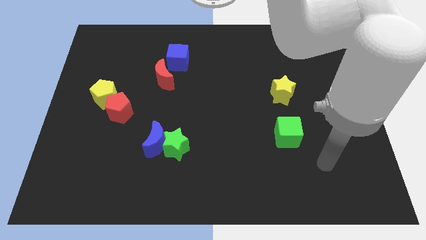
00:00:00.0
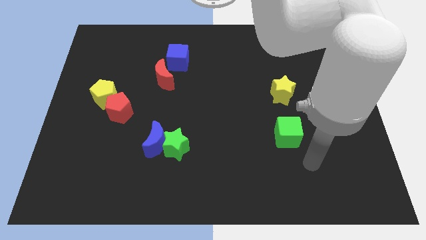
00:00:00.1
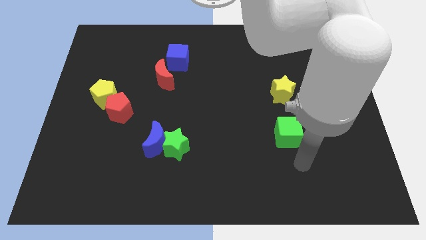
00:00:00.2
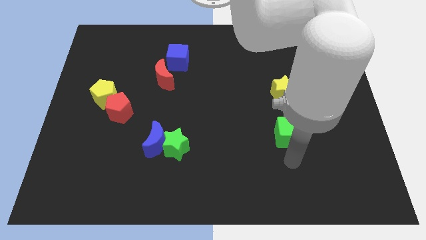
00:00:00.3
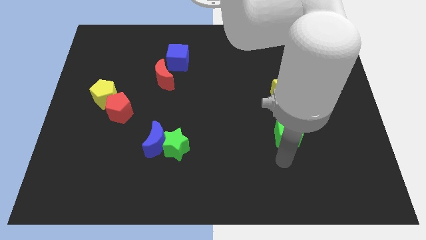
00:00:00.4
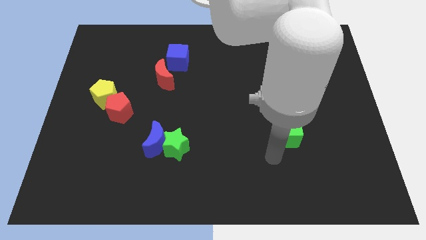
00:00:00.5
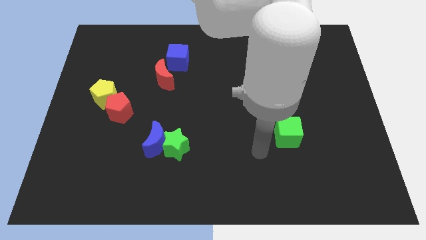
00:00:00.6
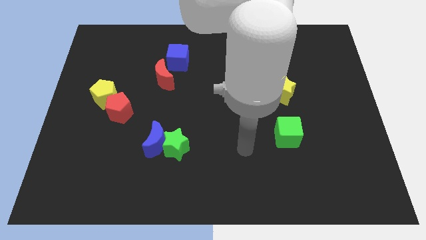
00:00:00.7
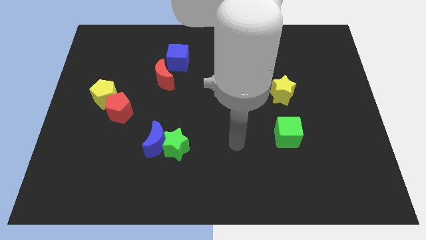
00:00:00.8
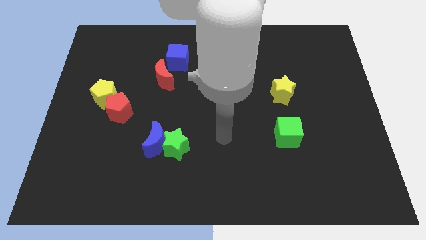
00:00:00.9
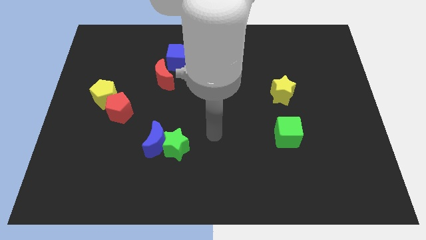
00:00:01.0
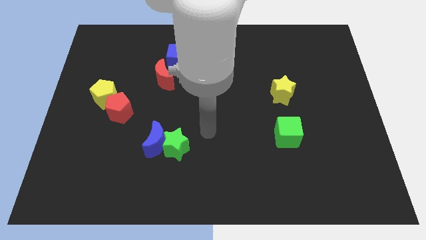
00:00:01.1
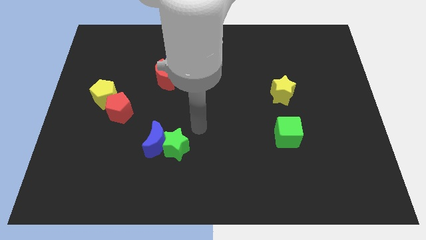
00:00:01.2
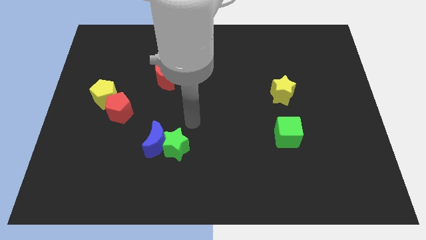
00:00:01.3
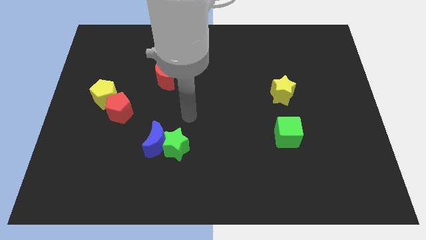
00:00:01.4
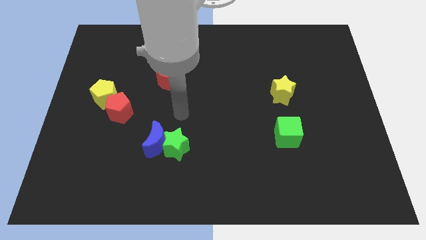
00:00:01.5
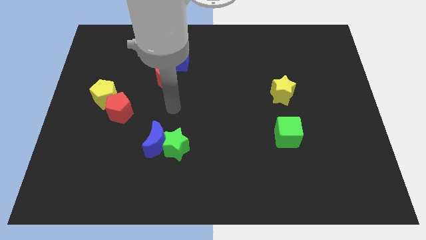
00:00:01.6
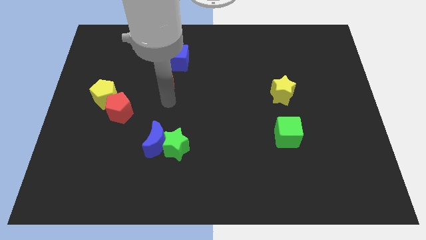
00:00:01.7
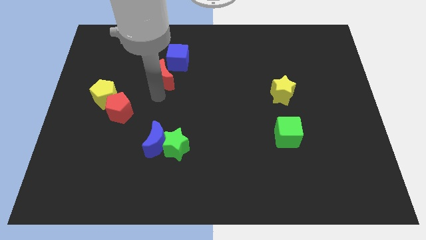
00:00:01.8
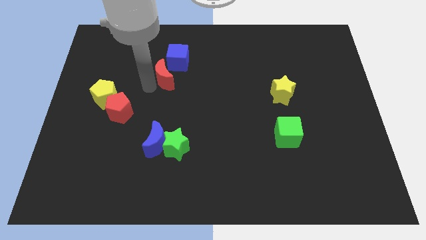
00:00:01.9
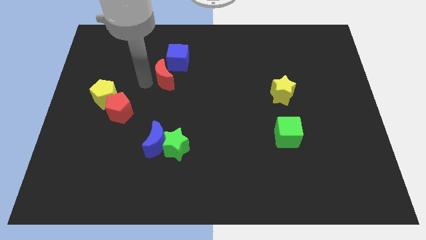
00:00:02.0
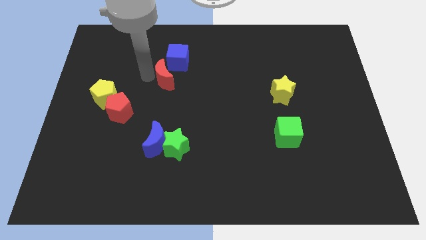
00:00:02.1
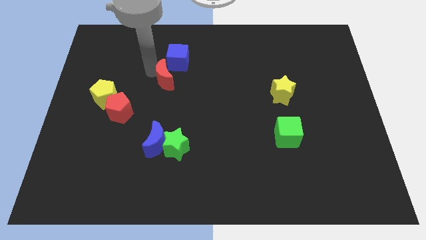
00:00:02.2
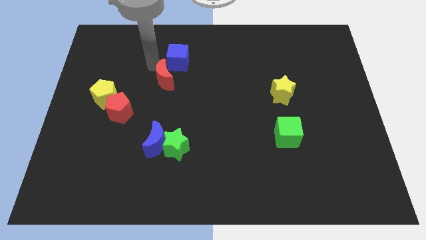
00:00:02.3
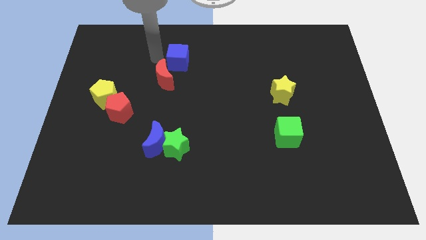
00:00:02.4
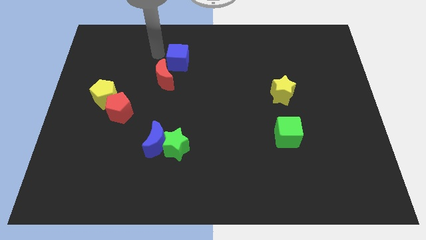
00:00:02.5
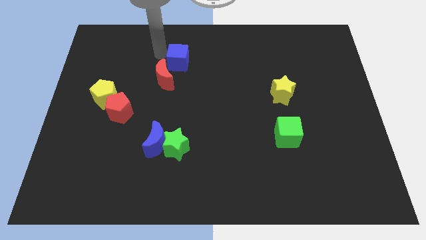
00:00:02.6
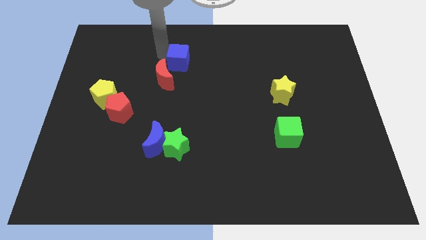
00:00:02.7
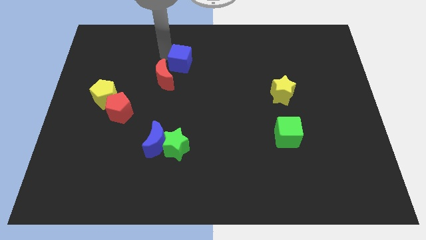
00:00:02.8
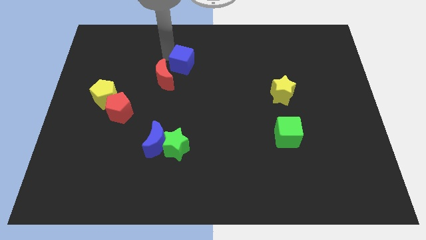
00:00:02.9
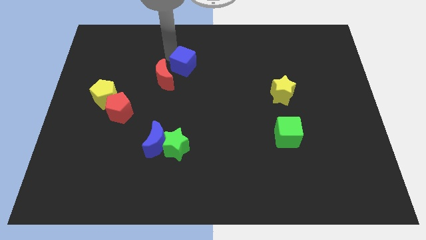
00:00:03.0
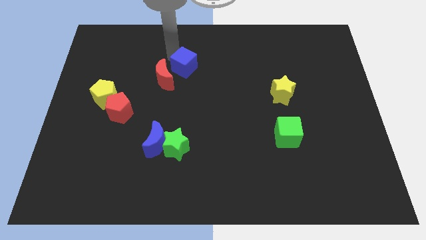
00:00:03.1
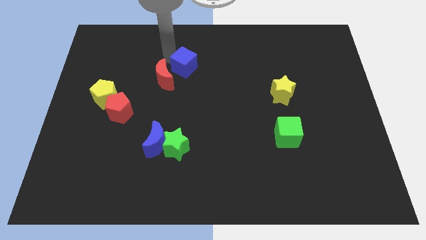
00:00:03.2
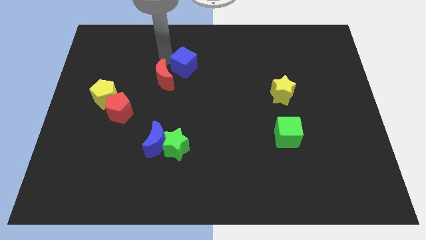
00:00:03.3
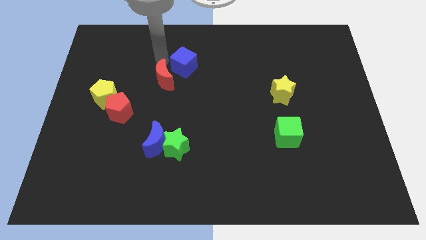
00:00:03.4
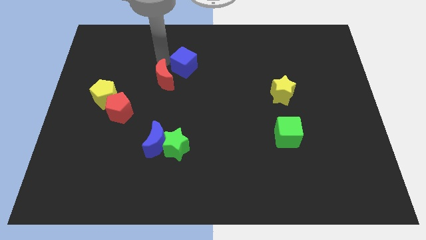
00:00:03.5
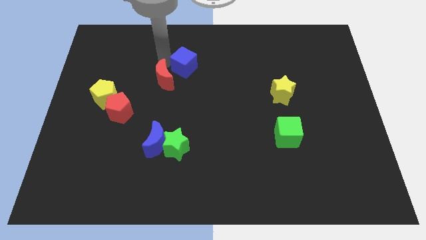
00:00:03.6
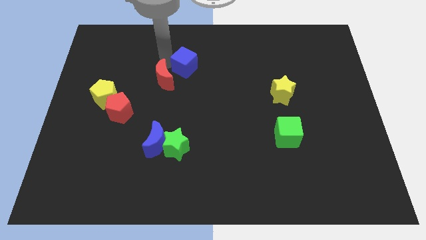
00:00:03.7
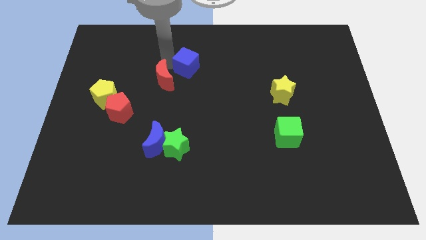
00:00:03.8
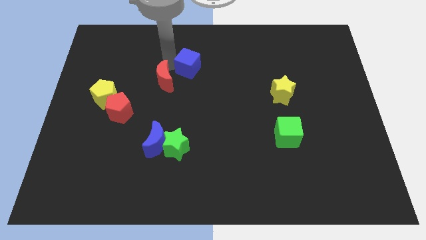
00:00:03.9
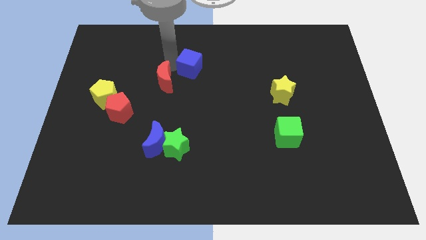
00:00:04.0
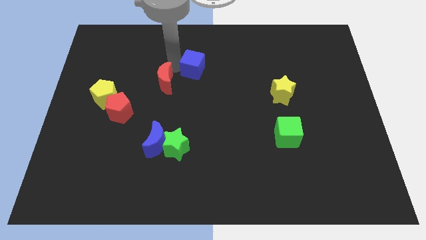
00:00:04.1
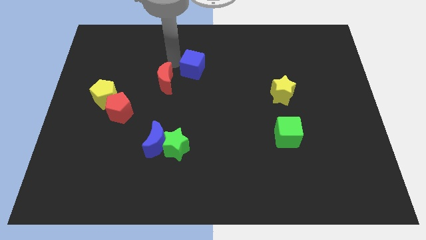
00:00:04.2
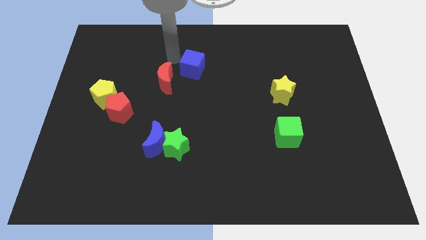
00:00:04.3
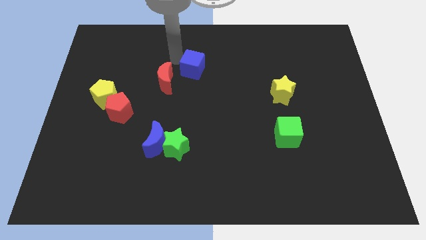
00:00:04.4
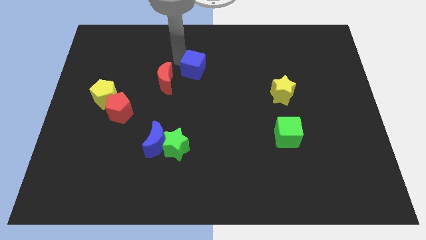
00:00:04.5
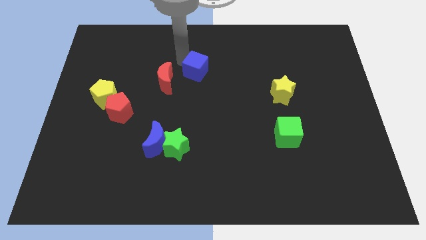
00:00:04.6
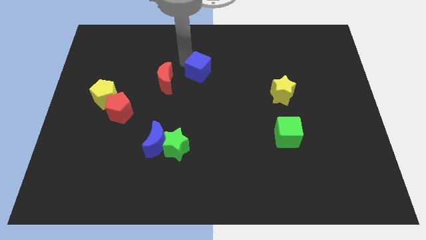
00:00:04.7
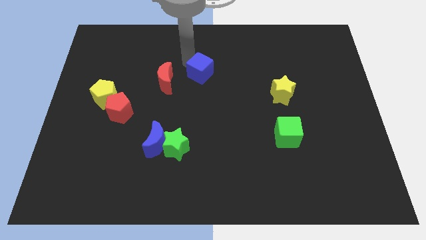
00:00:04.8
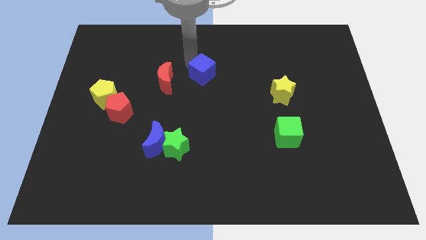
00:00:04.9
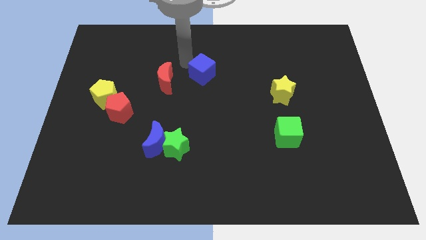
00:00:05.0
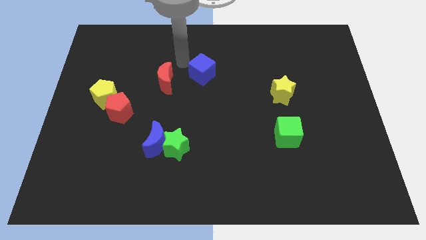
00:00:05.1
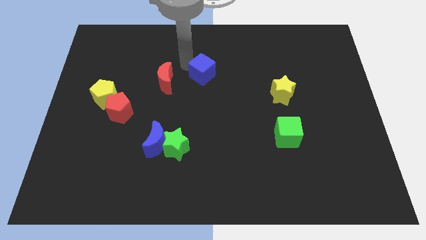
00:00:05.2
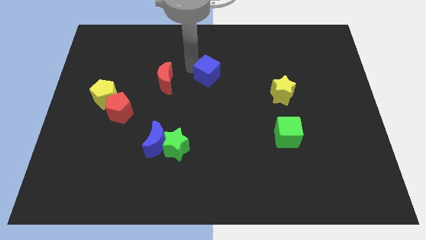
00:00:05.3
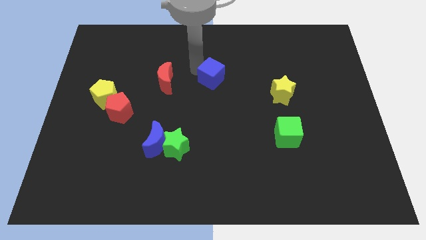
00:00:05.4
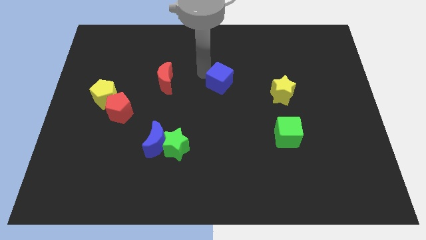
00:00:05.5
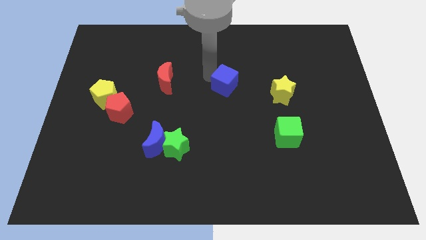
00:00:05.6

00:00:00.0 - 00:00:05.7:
push the blue cube left of the yellow star

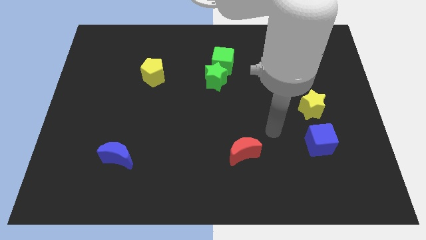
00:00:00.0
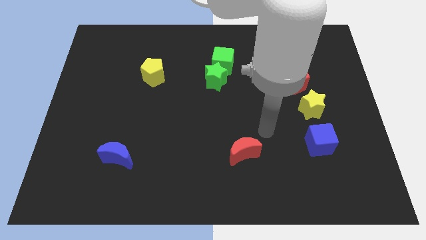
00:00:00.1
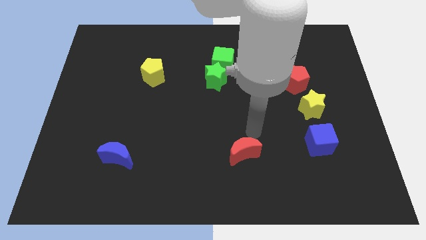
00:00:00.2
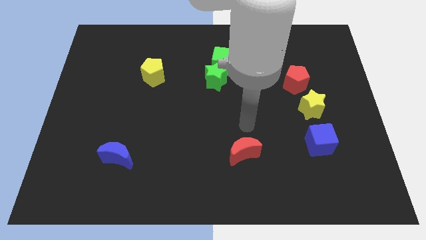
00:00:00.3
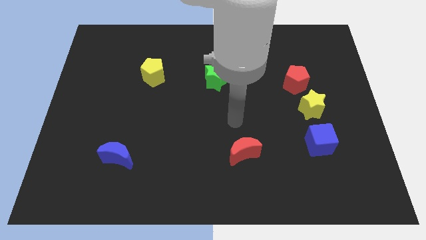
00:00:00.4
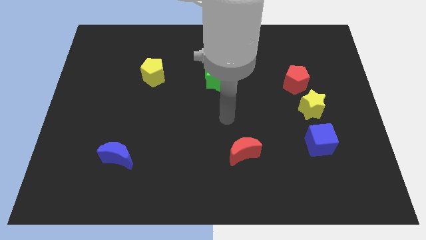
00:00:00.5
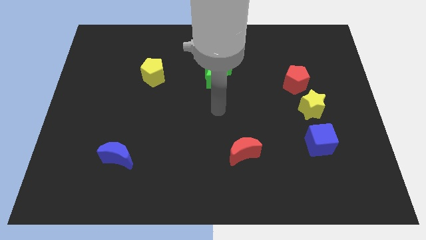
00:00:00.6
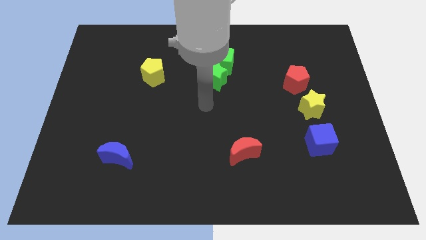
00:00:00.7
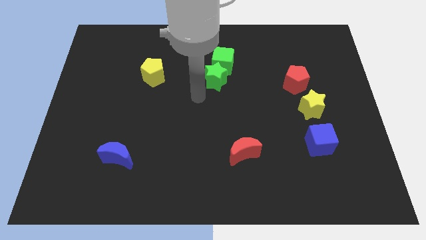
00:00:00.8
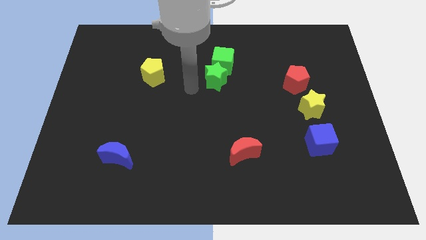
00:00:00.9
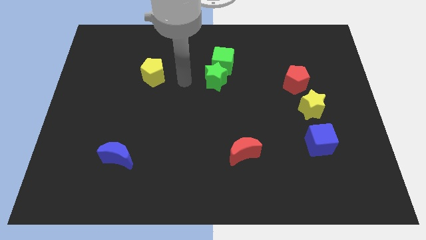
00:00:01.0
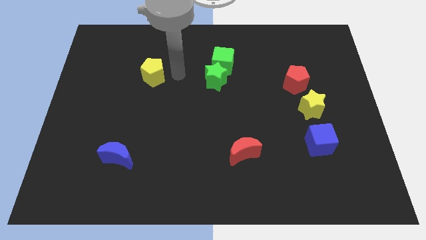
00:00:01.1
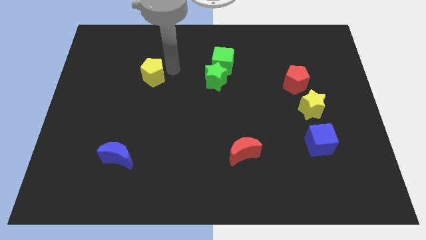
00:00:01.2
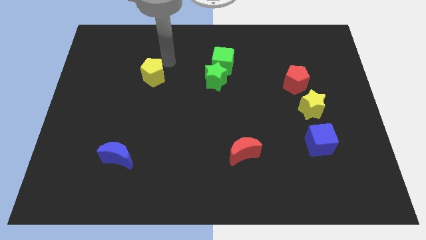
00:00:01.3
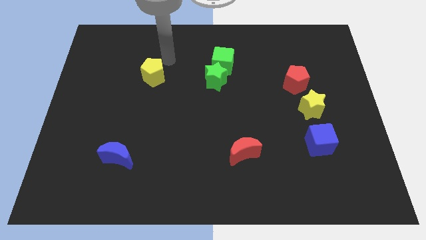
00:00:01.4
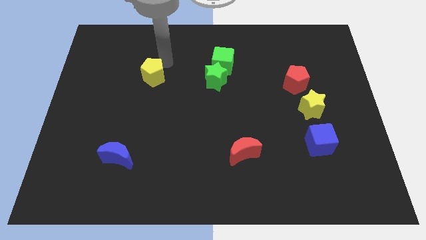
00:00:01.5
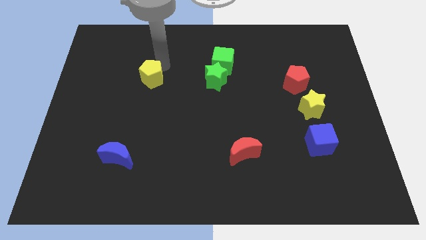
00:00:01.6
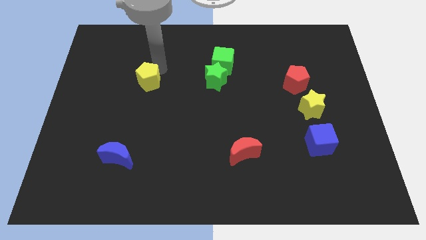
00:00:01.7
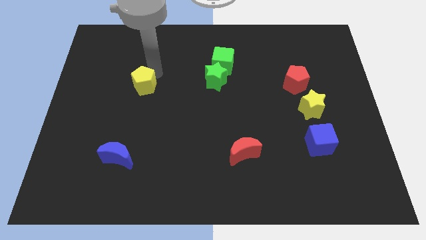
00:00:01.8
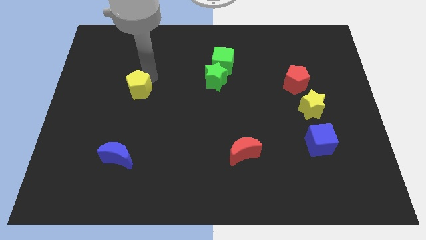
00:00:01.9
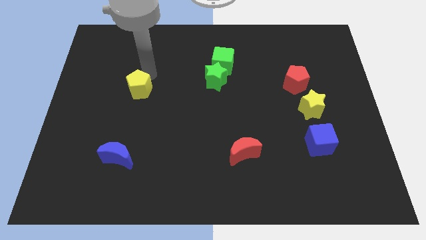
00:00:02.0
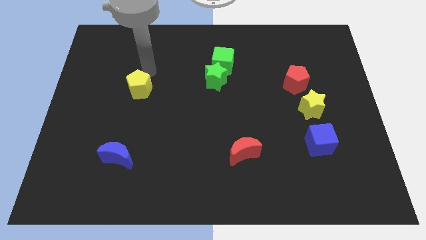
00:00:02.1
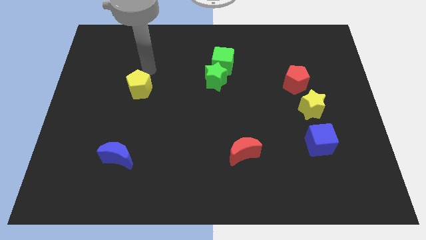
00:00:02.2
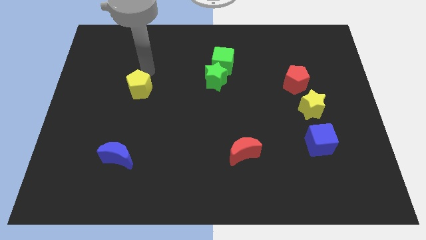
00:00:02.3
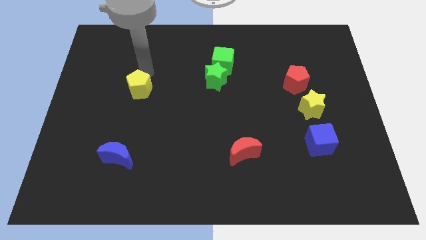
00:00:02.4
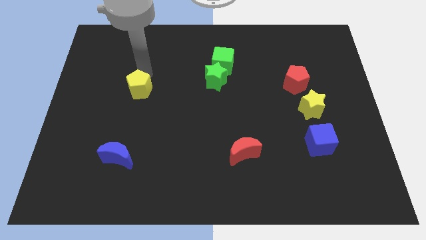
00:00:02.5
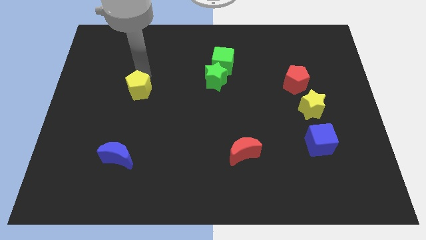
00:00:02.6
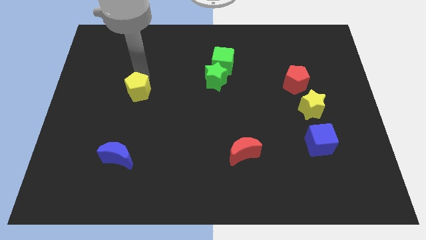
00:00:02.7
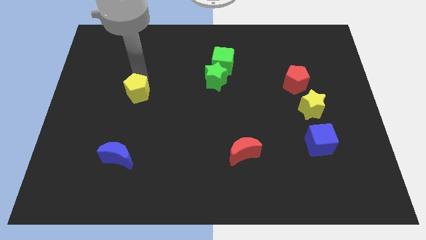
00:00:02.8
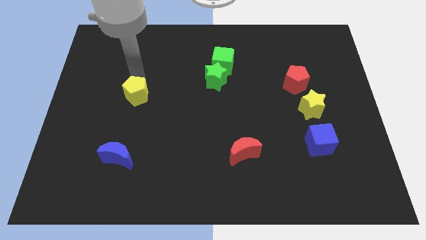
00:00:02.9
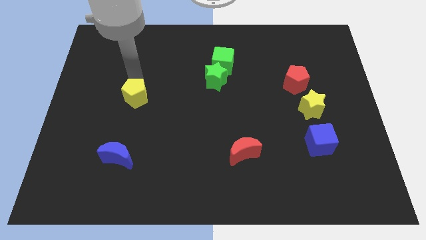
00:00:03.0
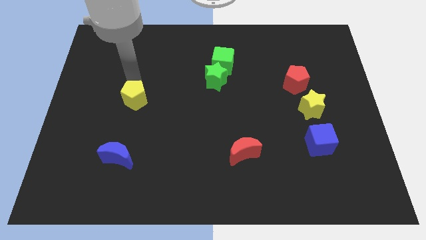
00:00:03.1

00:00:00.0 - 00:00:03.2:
slide the yellow pentagon to the top side of the blue moon
